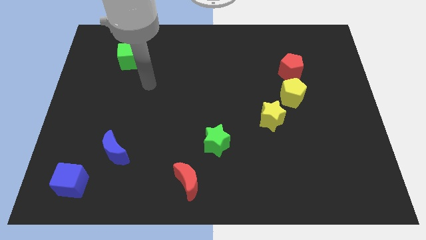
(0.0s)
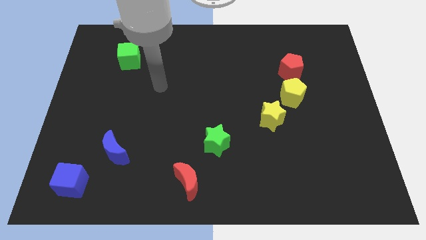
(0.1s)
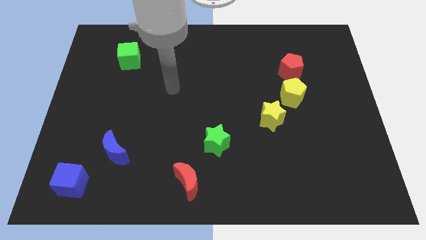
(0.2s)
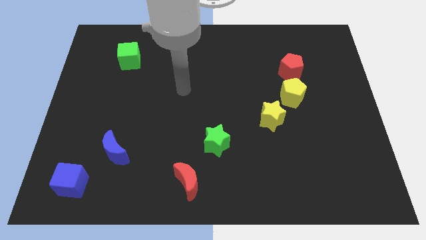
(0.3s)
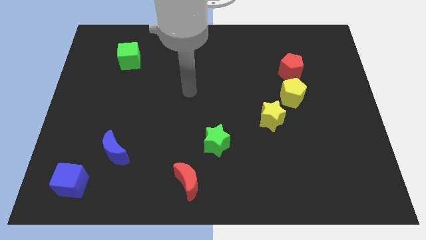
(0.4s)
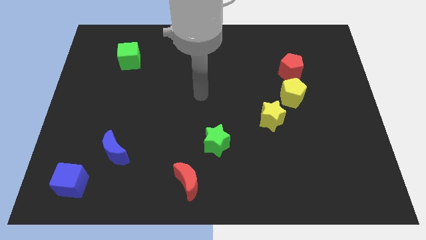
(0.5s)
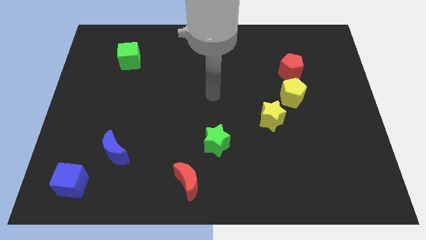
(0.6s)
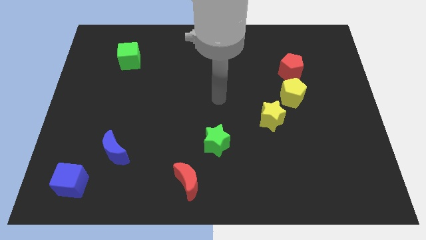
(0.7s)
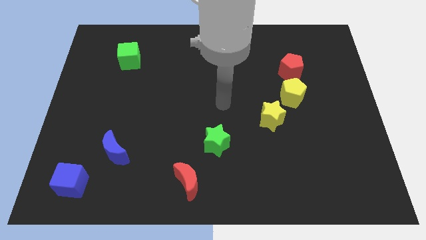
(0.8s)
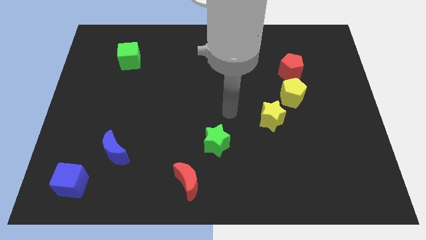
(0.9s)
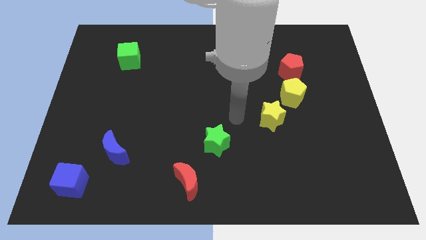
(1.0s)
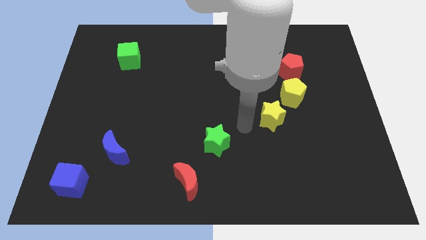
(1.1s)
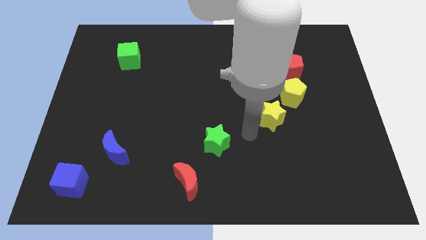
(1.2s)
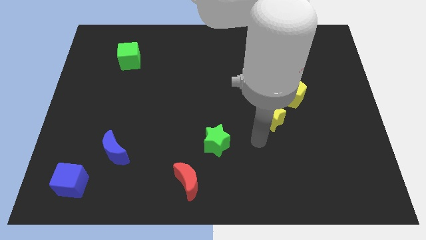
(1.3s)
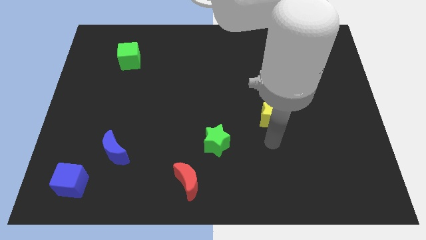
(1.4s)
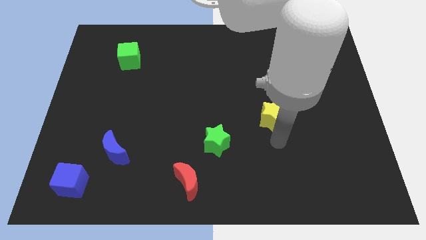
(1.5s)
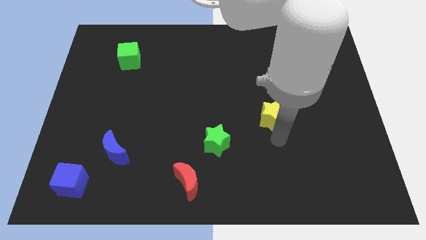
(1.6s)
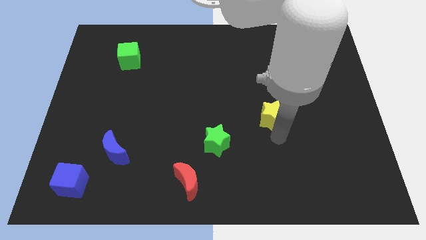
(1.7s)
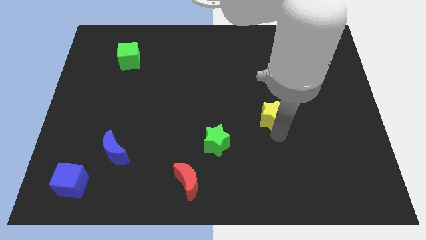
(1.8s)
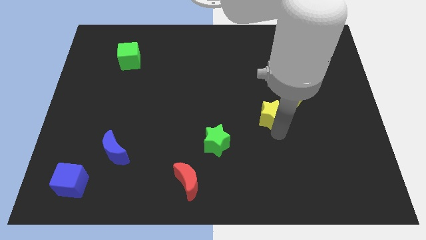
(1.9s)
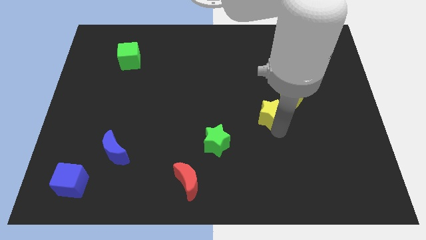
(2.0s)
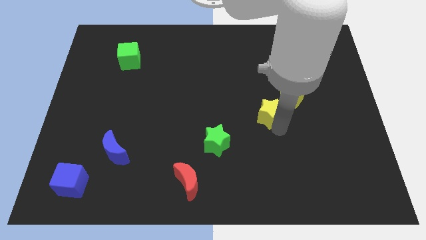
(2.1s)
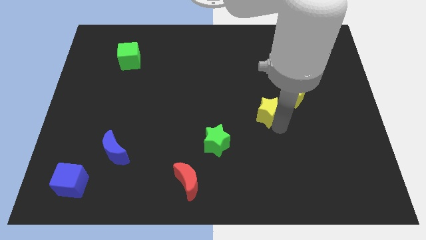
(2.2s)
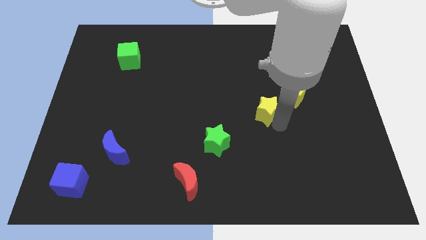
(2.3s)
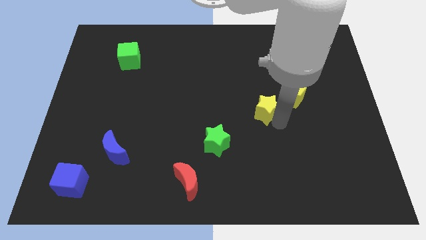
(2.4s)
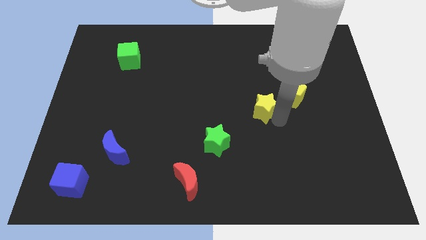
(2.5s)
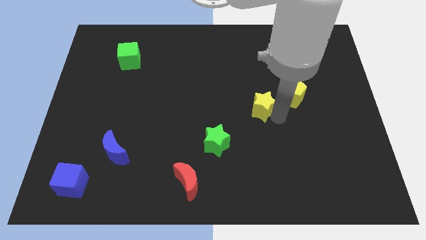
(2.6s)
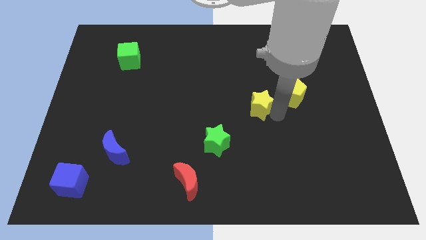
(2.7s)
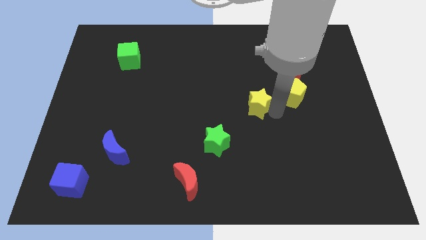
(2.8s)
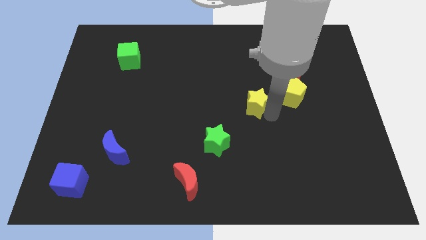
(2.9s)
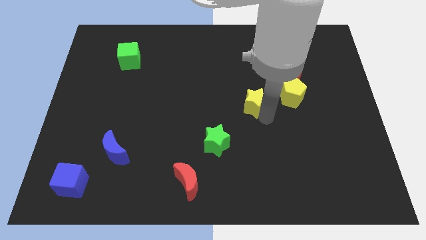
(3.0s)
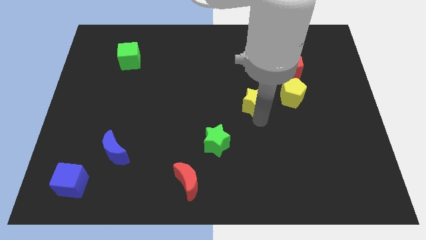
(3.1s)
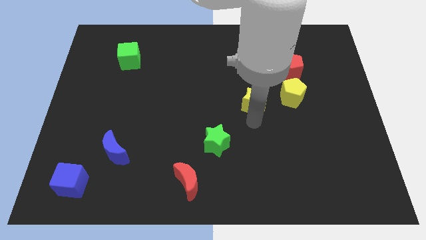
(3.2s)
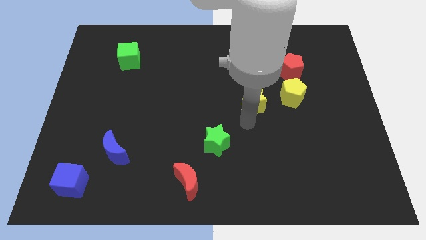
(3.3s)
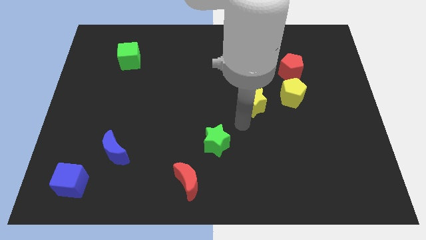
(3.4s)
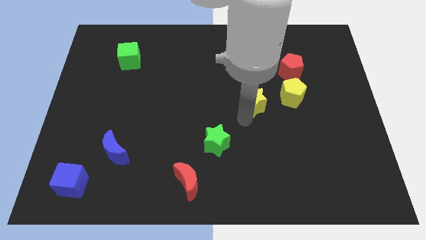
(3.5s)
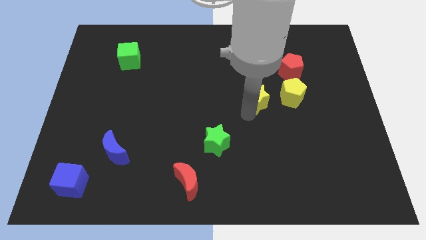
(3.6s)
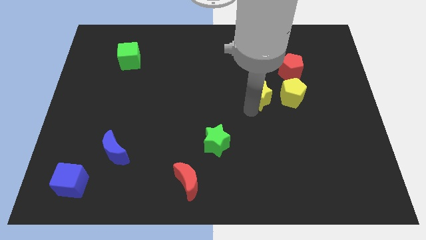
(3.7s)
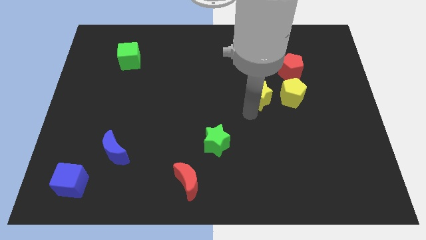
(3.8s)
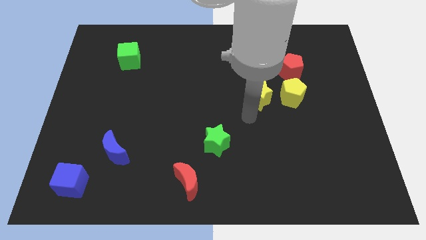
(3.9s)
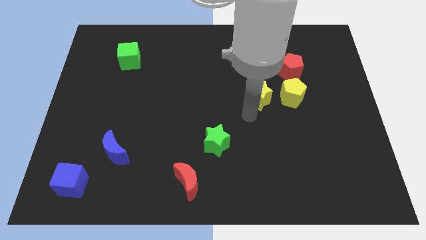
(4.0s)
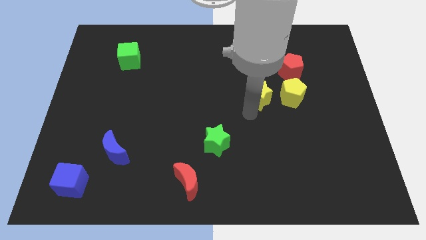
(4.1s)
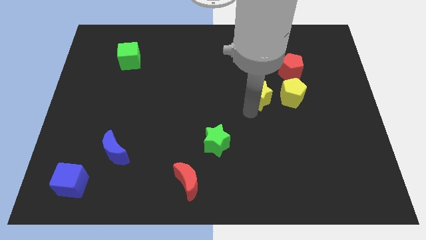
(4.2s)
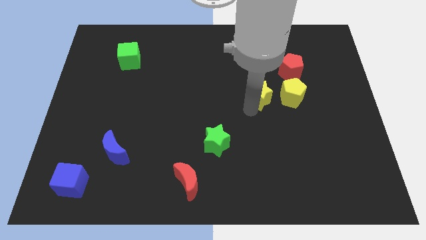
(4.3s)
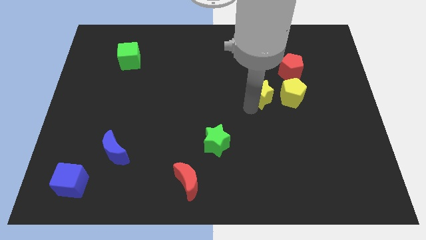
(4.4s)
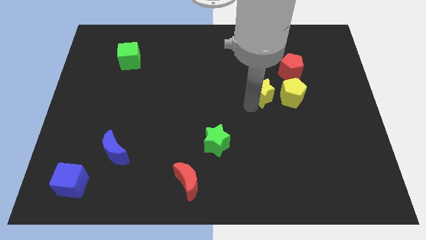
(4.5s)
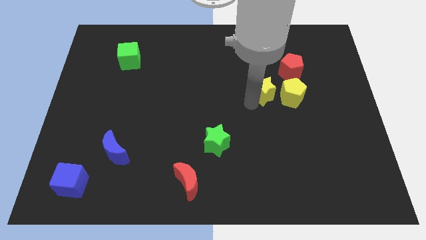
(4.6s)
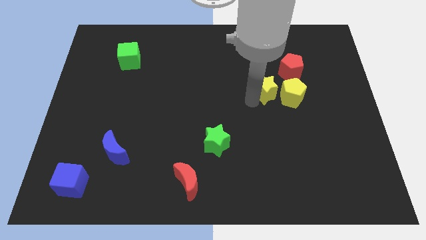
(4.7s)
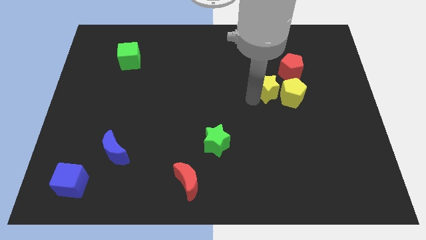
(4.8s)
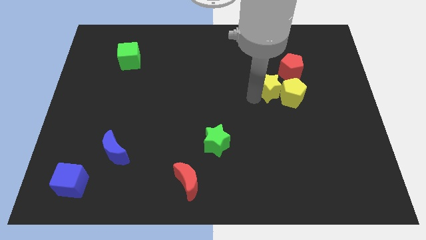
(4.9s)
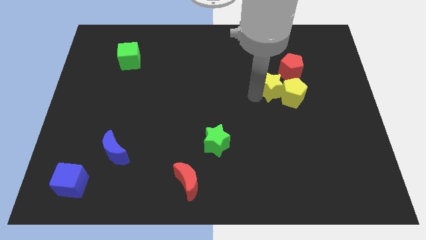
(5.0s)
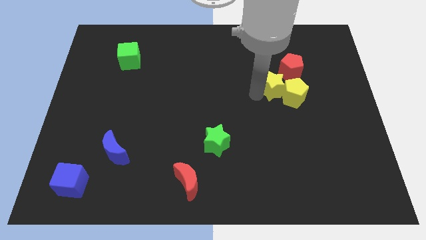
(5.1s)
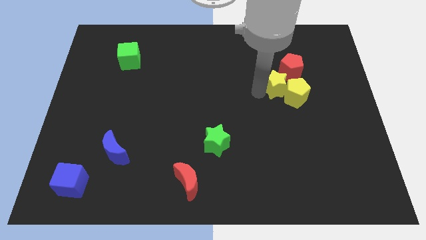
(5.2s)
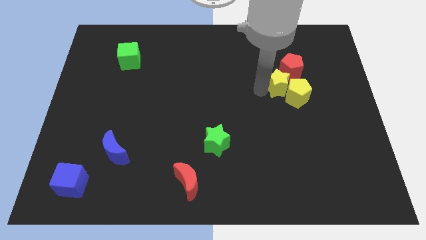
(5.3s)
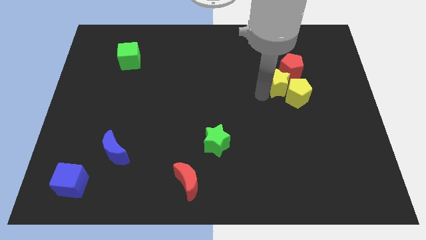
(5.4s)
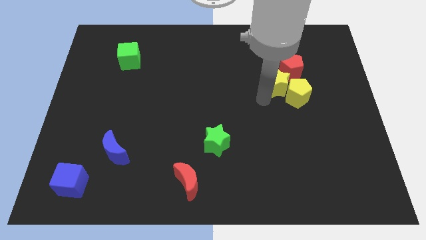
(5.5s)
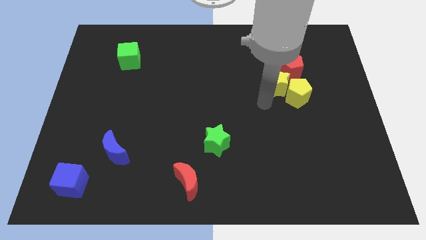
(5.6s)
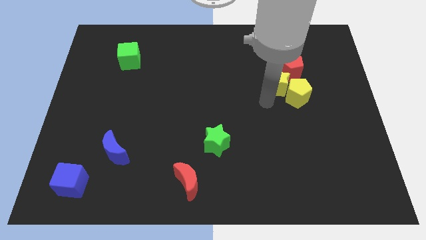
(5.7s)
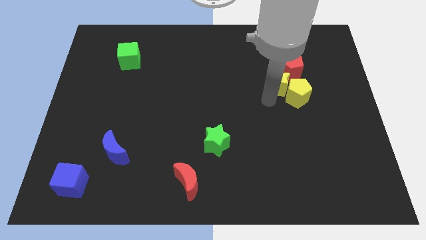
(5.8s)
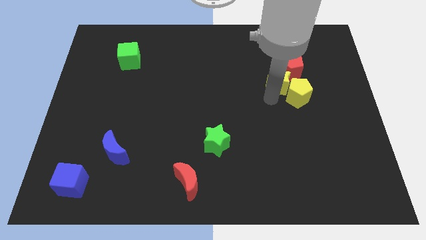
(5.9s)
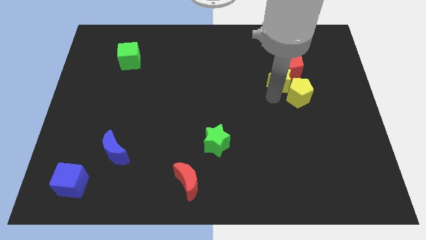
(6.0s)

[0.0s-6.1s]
push the yellow star next to the red pentagon
